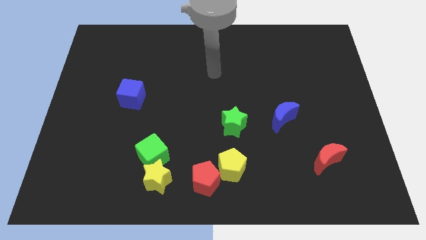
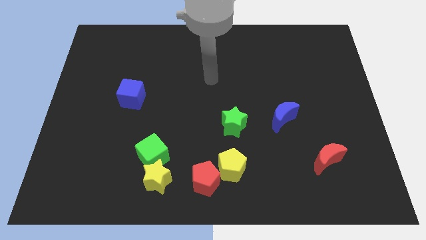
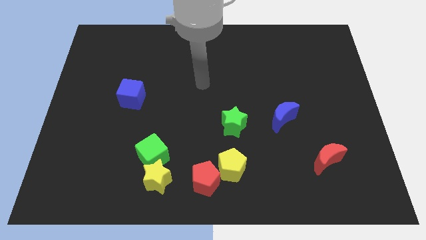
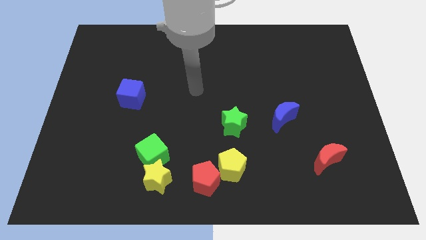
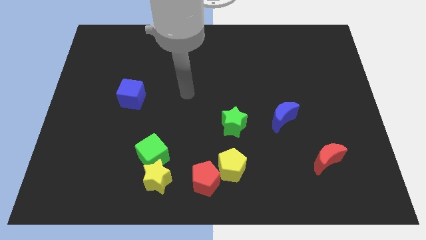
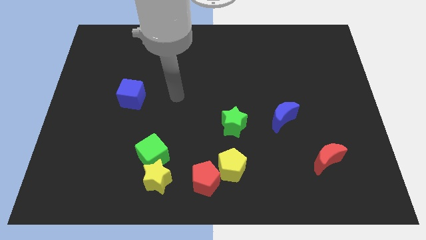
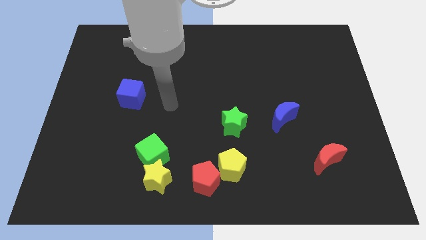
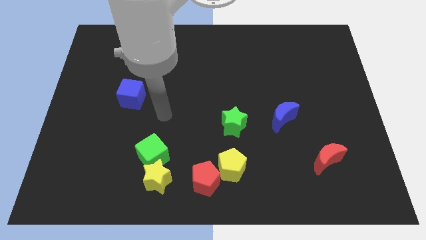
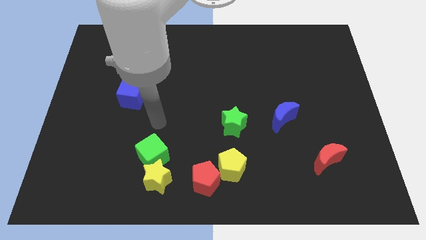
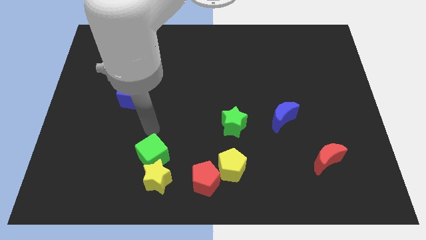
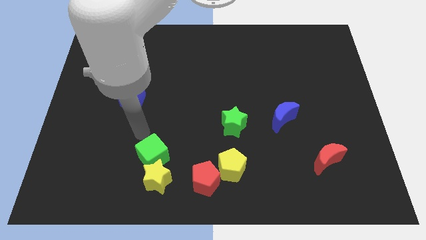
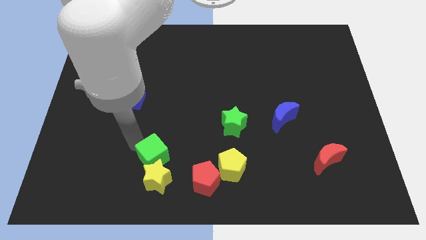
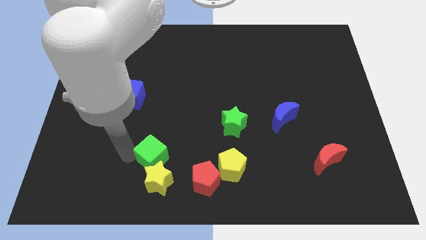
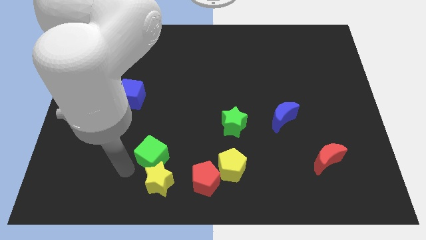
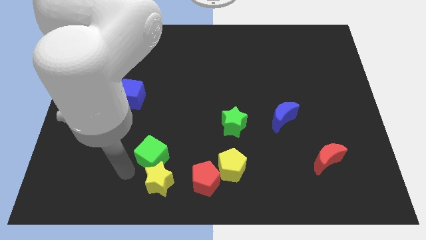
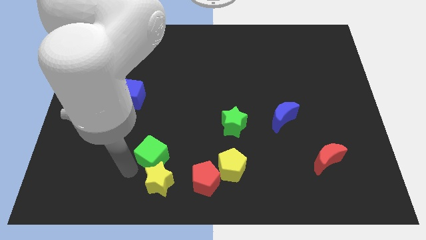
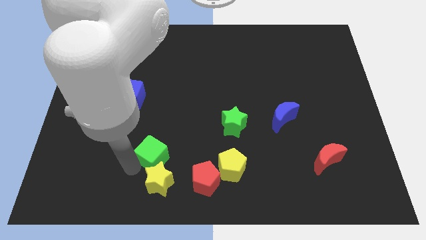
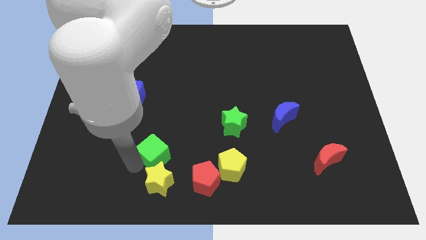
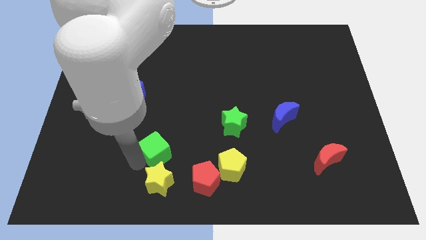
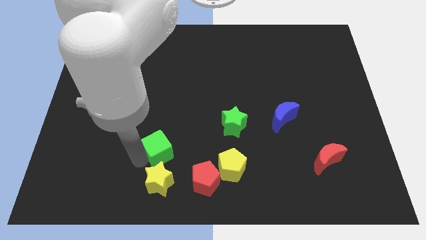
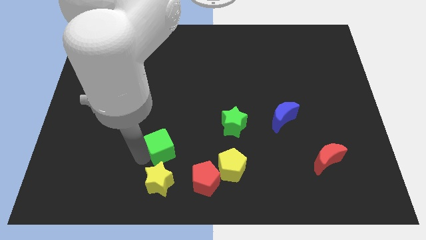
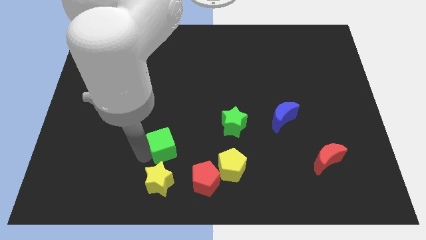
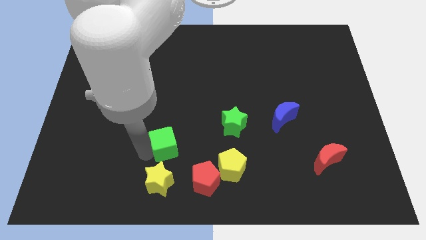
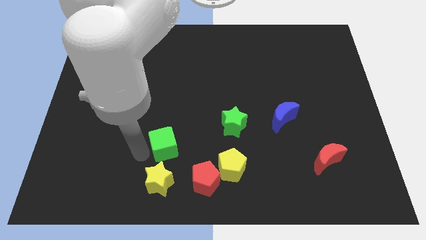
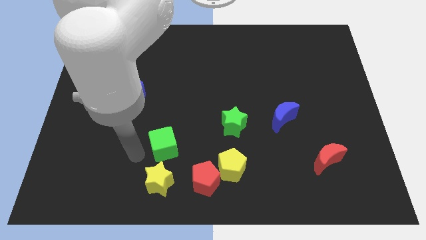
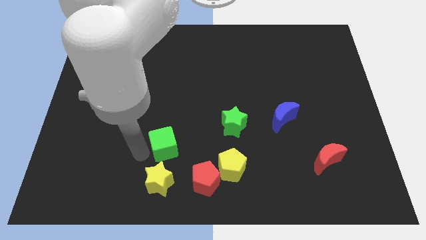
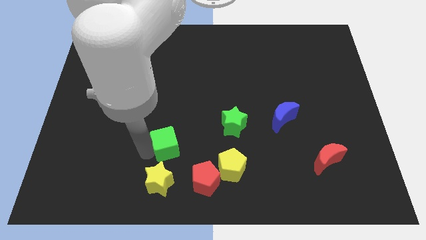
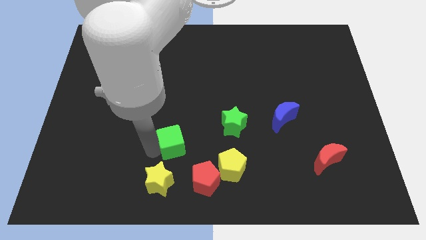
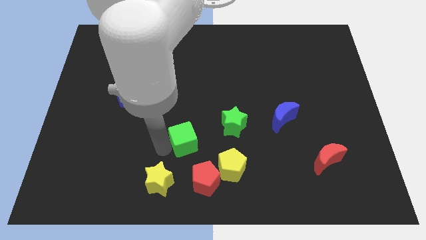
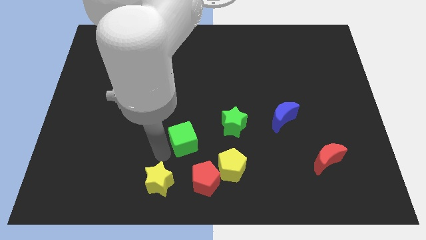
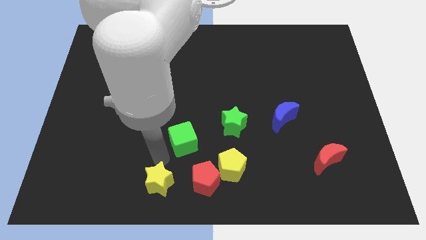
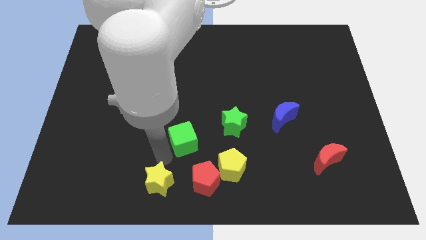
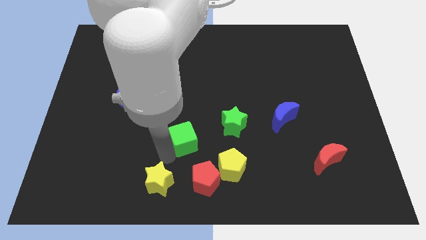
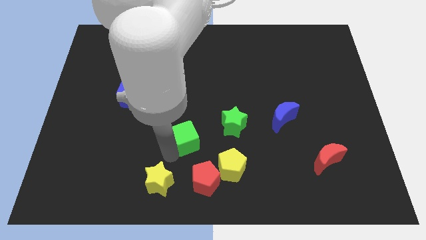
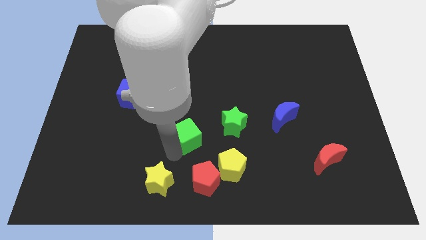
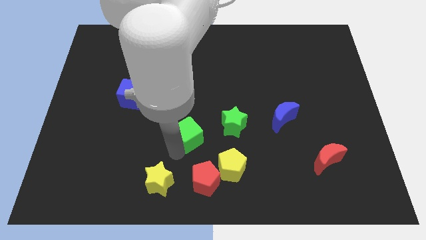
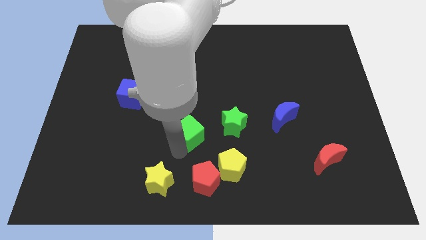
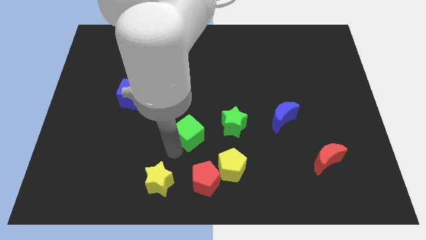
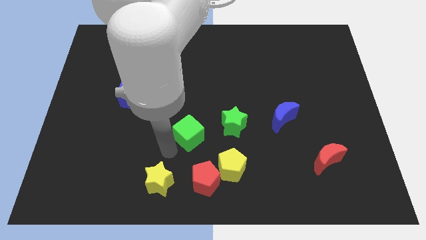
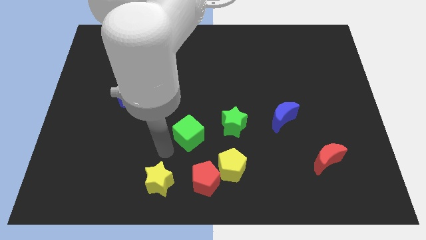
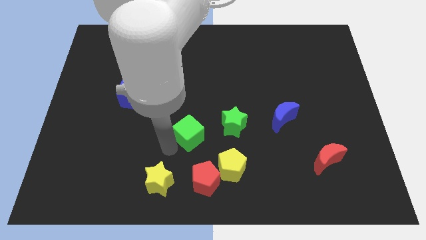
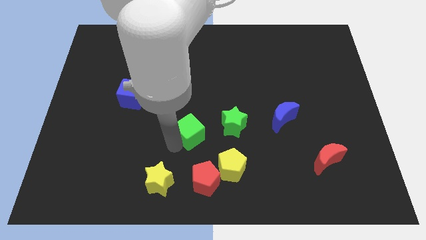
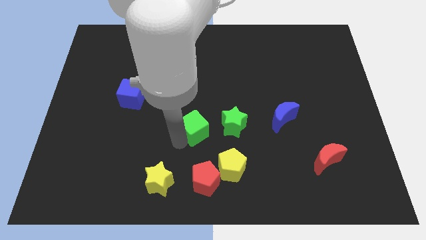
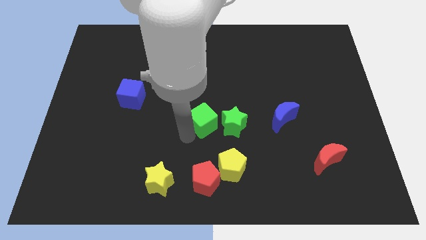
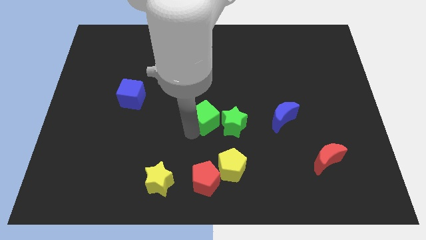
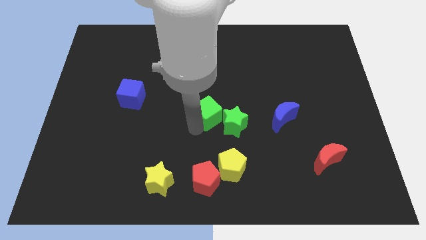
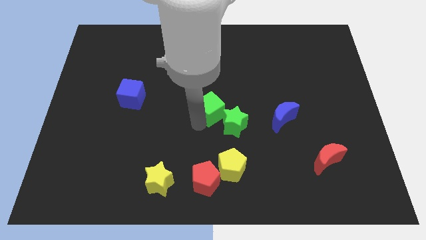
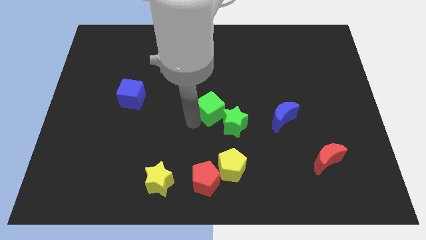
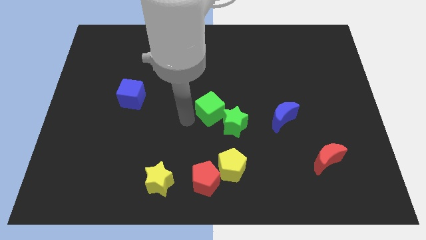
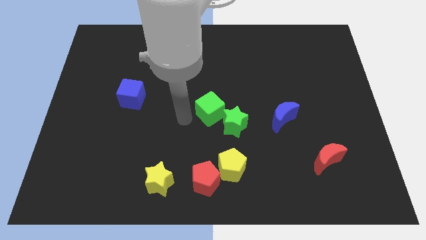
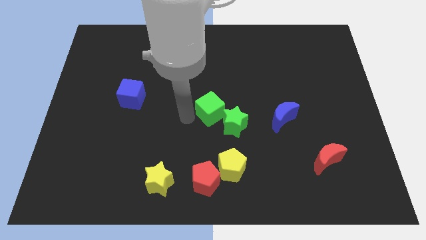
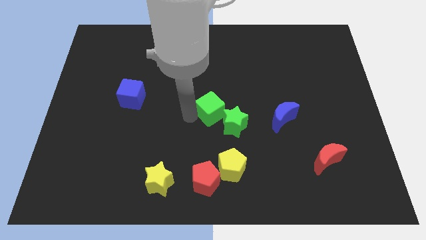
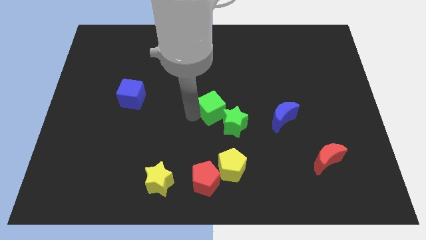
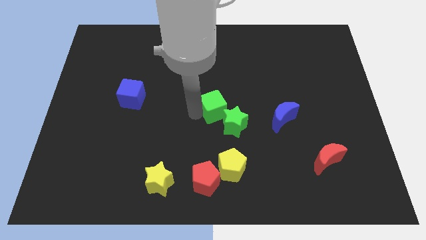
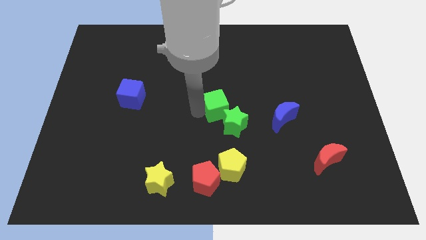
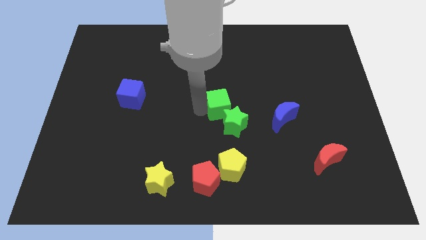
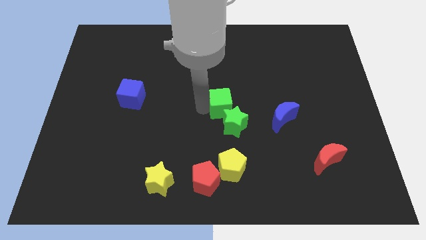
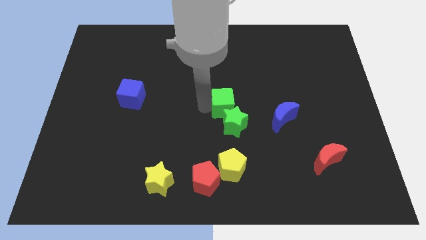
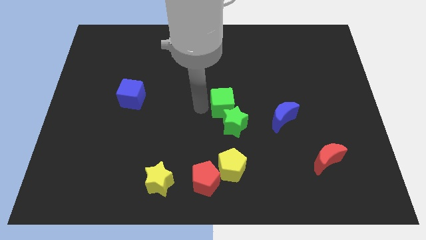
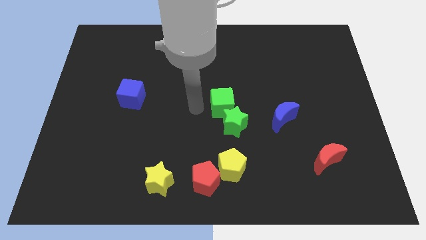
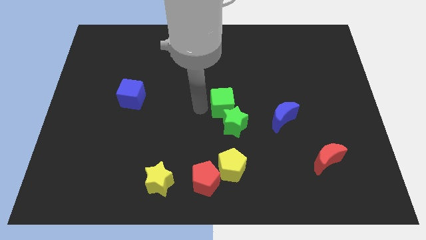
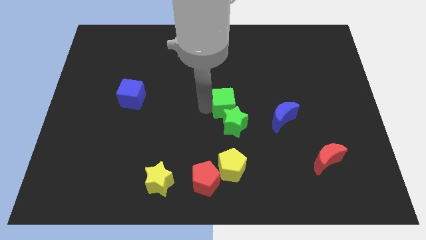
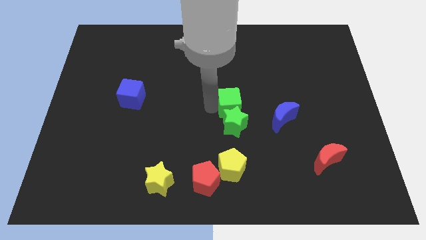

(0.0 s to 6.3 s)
slide the green cube to the top right of the green star

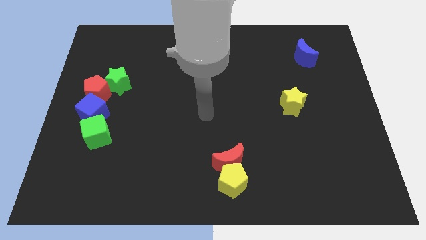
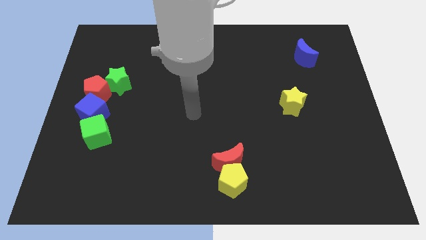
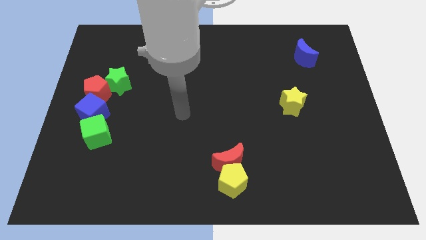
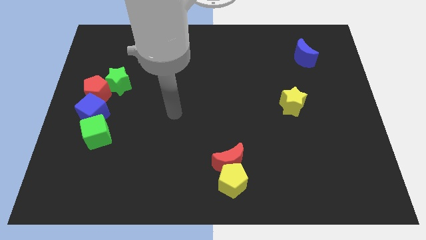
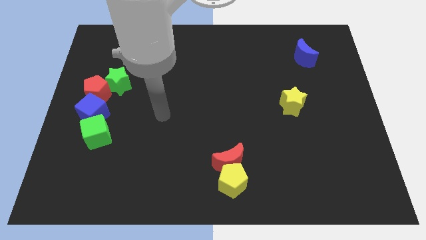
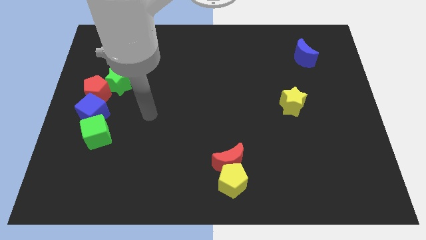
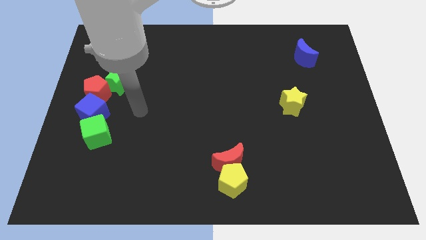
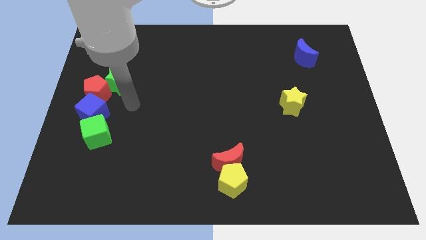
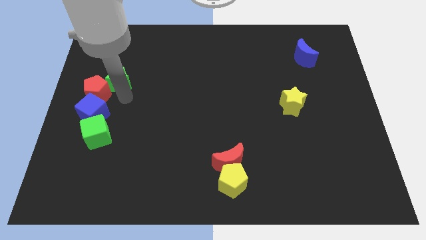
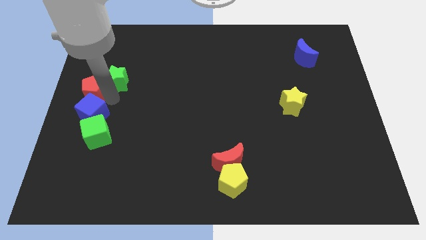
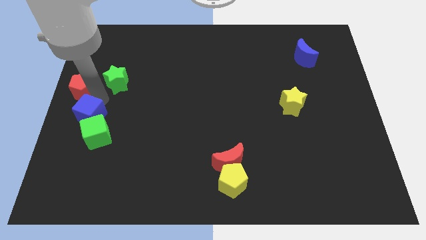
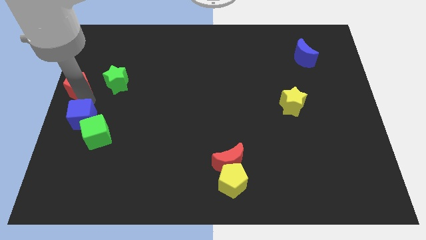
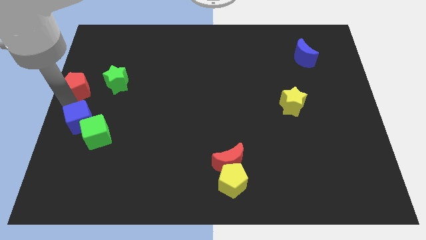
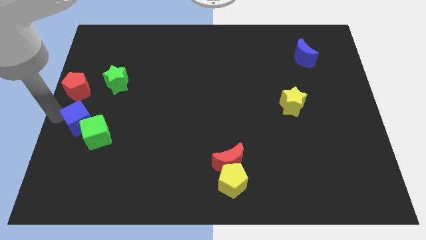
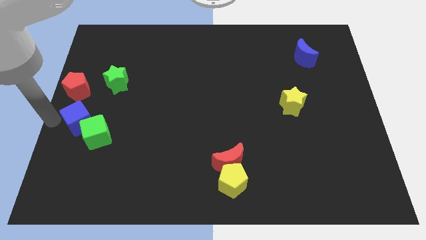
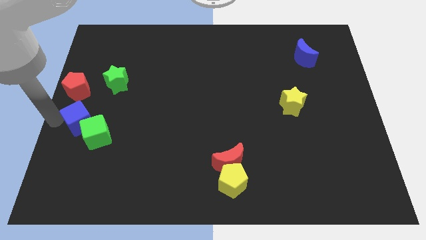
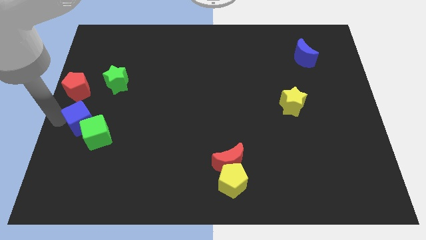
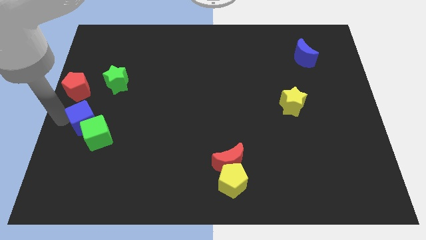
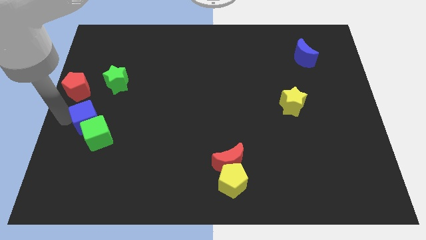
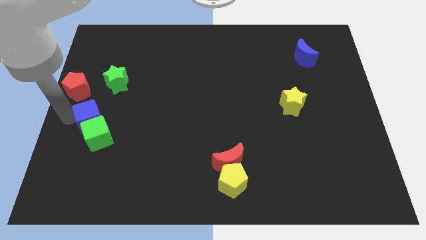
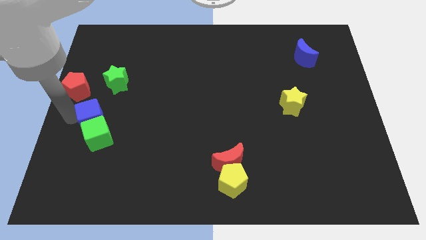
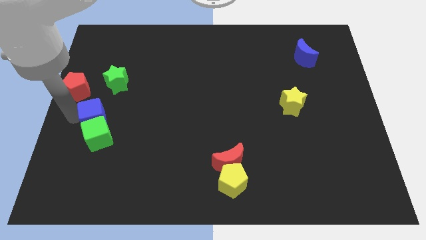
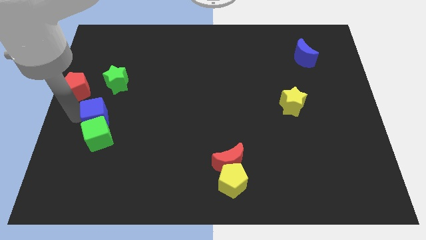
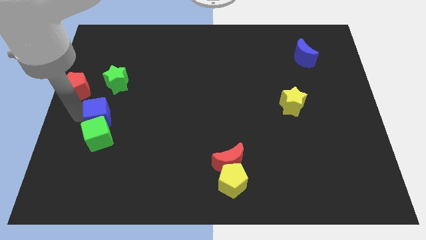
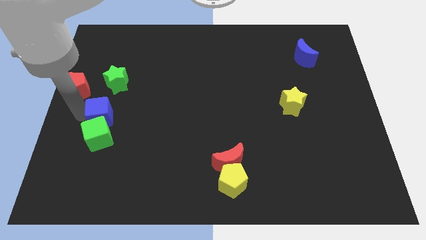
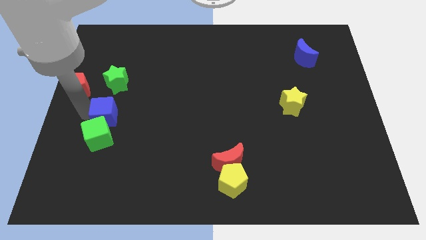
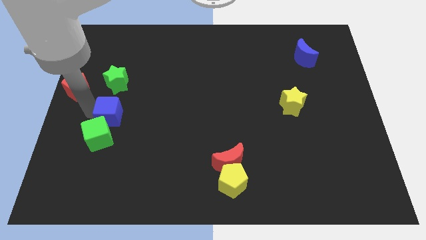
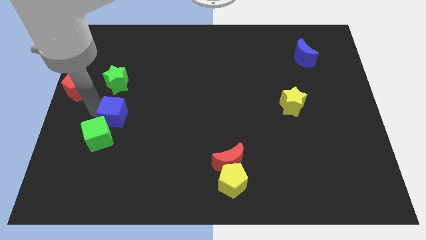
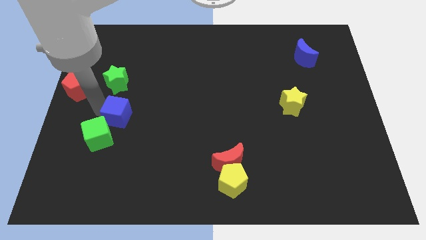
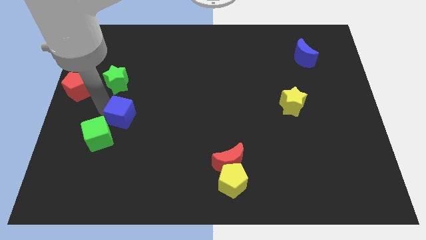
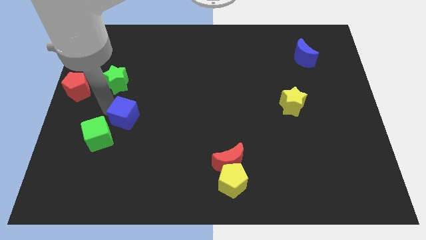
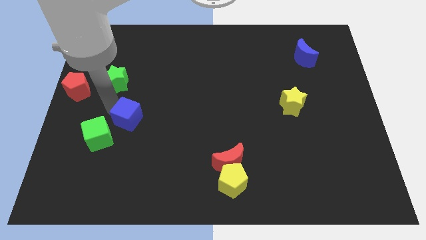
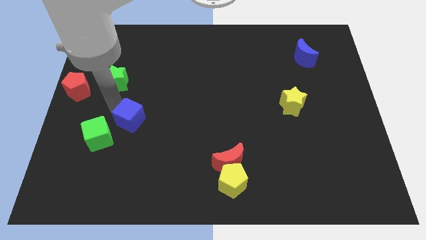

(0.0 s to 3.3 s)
put the blue cube to the right side of the green cube
